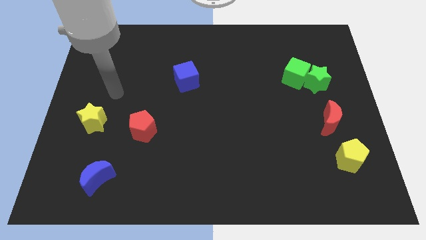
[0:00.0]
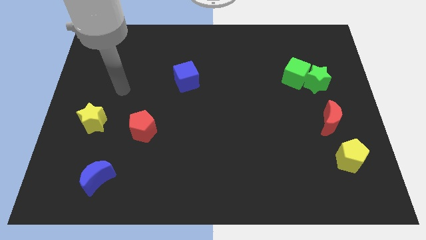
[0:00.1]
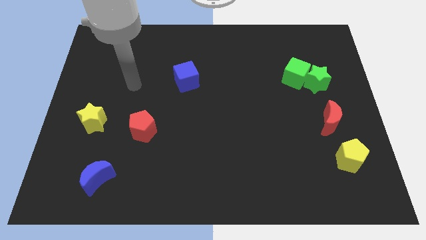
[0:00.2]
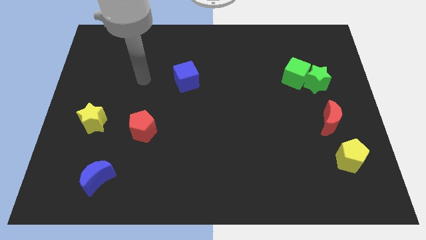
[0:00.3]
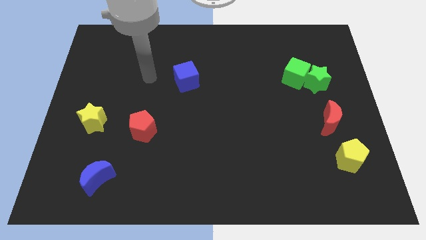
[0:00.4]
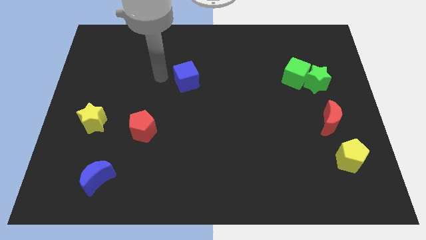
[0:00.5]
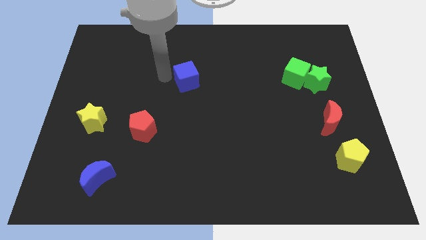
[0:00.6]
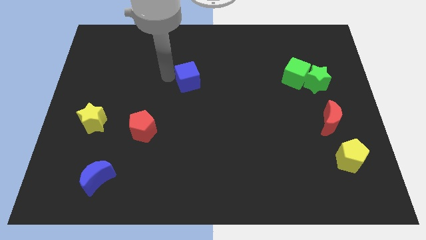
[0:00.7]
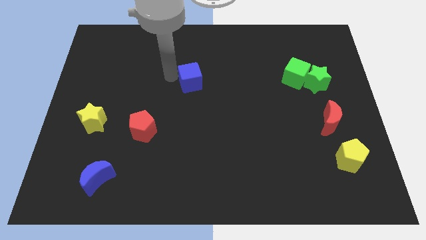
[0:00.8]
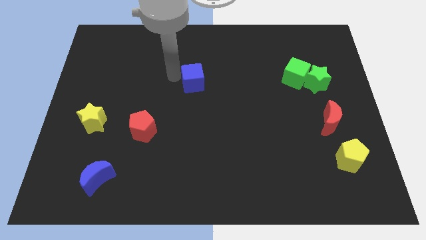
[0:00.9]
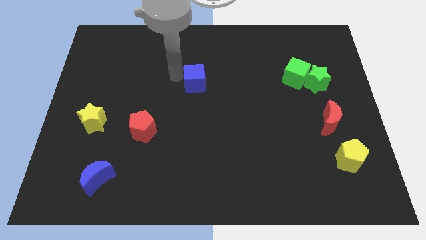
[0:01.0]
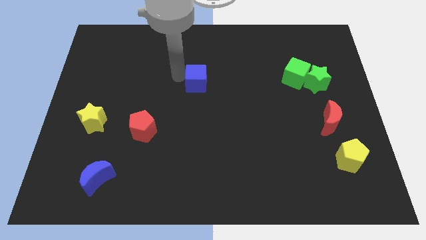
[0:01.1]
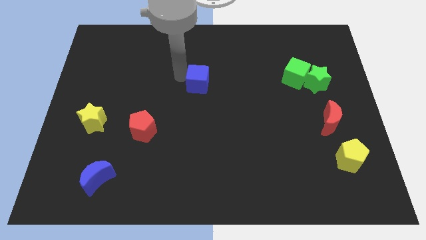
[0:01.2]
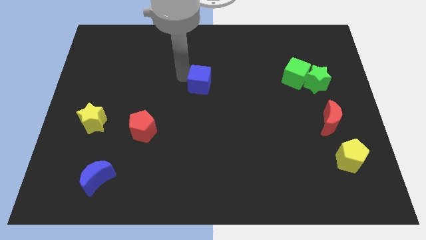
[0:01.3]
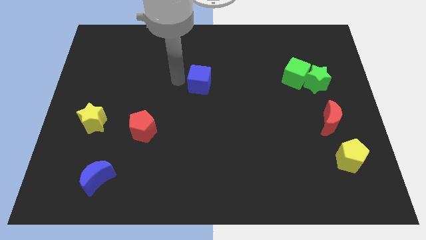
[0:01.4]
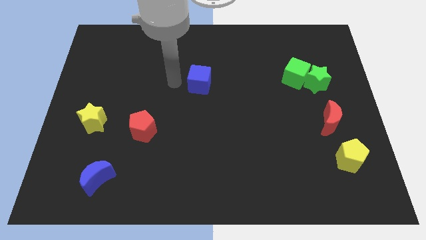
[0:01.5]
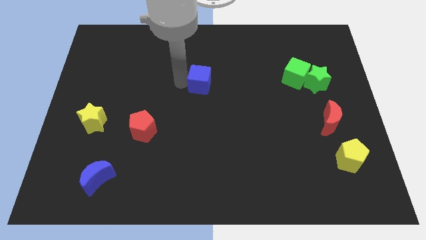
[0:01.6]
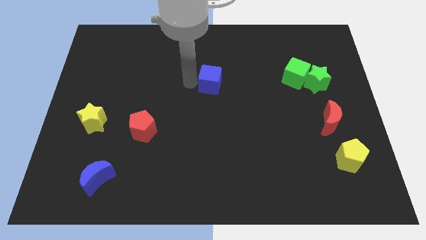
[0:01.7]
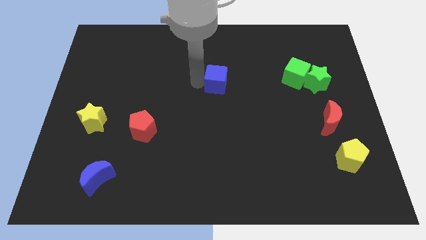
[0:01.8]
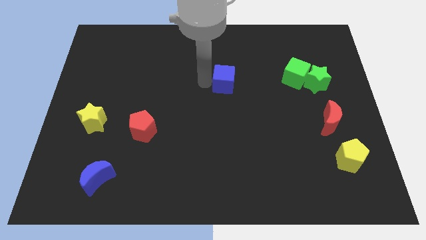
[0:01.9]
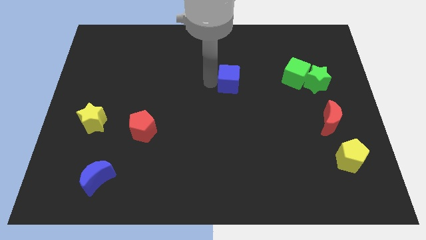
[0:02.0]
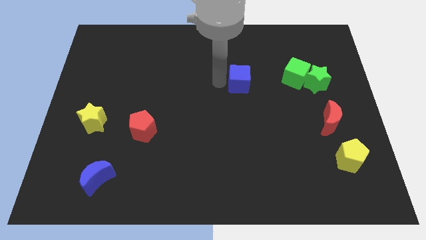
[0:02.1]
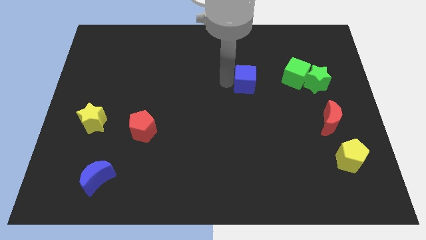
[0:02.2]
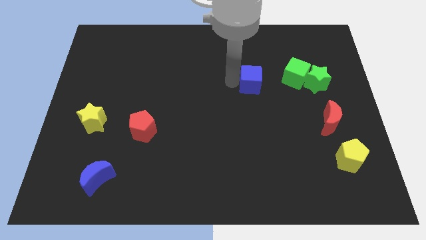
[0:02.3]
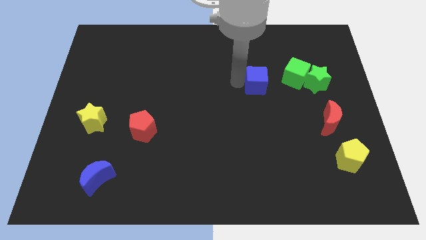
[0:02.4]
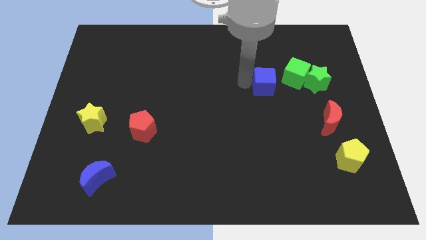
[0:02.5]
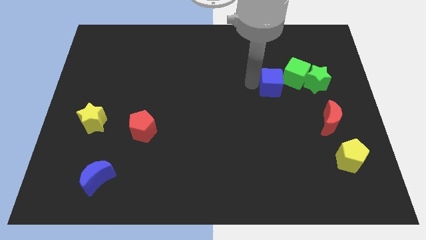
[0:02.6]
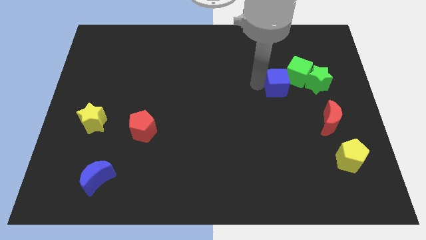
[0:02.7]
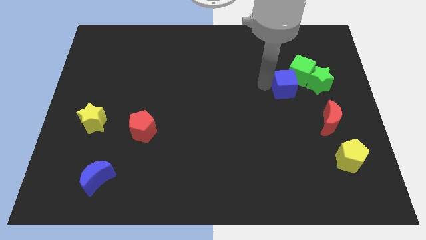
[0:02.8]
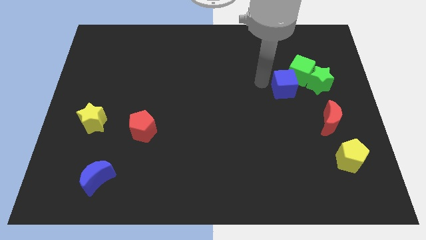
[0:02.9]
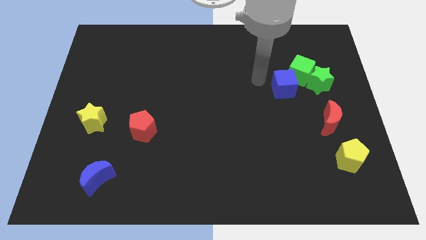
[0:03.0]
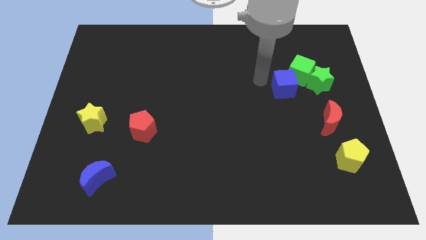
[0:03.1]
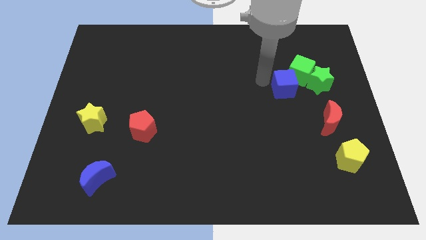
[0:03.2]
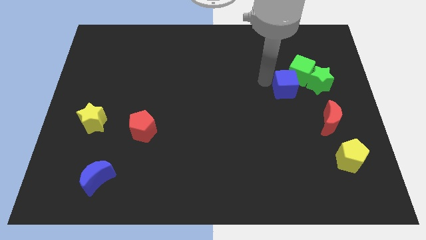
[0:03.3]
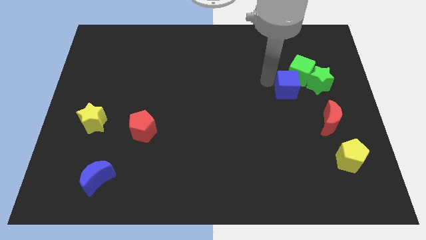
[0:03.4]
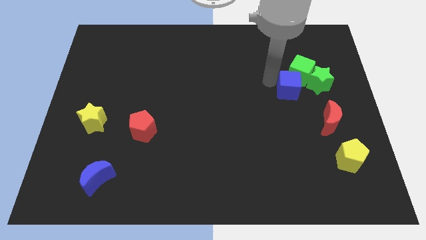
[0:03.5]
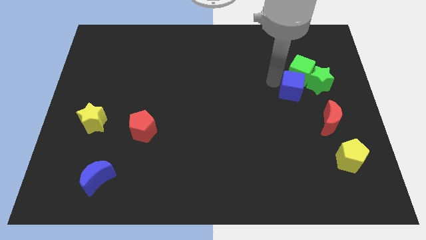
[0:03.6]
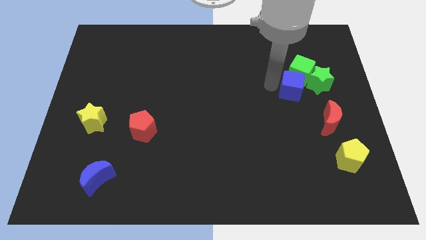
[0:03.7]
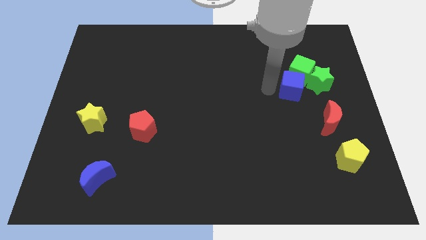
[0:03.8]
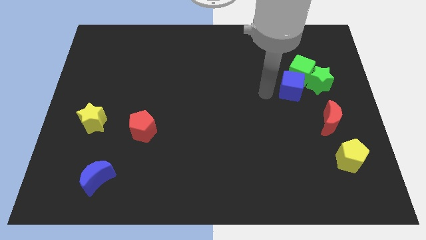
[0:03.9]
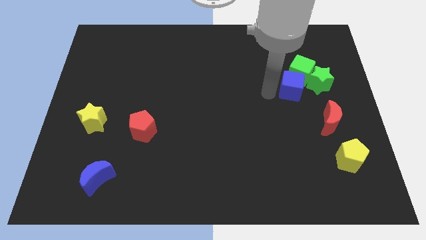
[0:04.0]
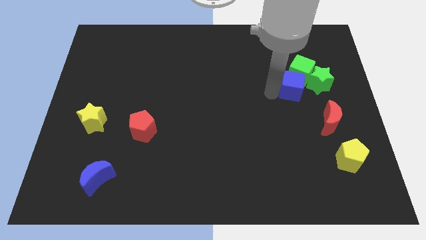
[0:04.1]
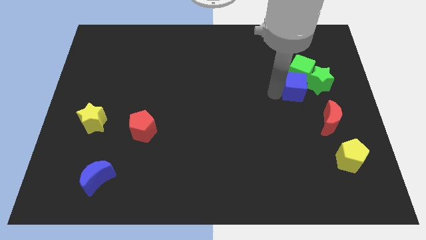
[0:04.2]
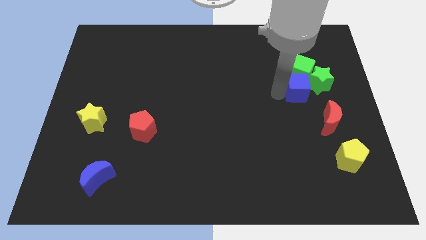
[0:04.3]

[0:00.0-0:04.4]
push the blue cube towards the green star

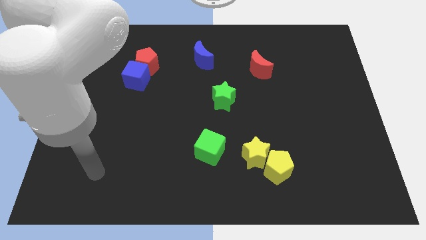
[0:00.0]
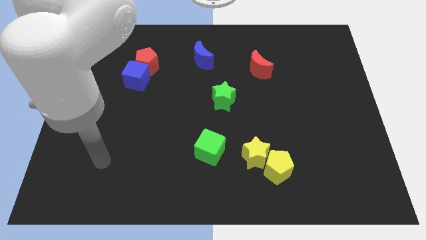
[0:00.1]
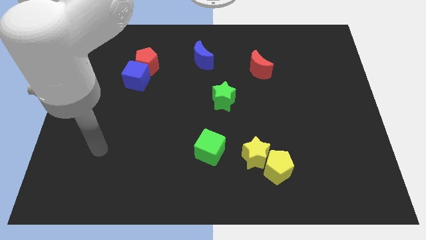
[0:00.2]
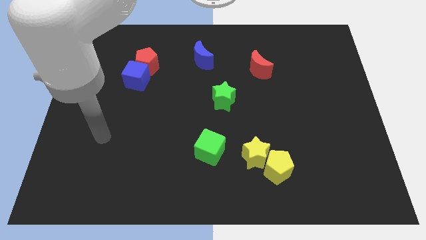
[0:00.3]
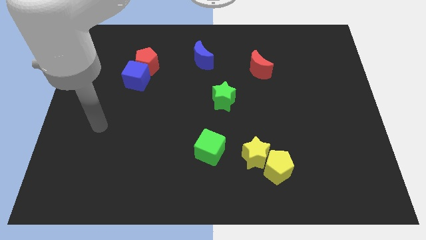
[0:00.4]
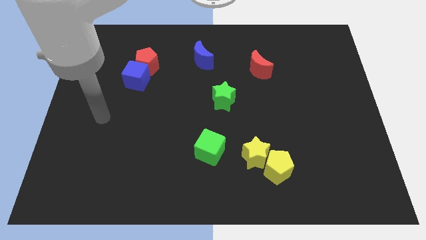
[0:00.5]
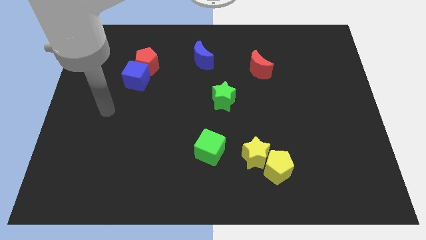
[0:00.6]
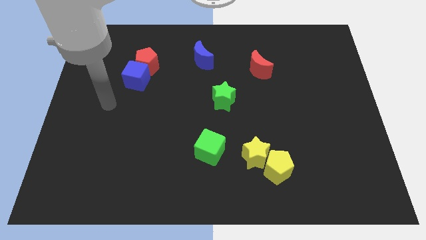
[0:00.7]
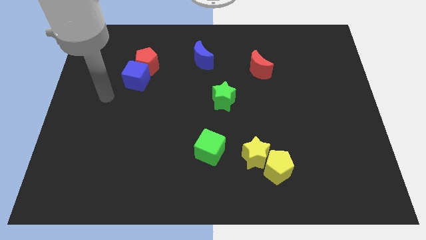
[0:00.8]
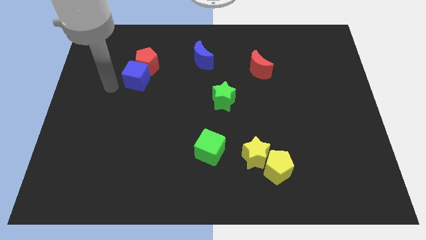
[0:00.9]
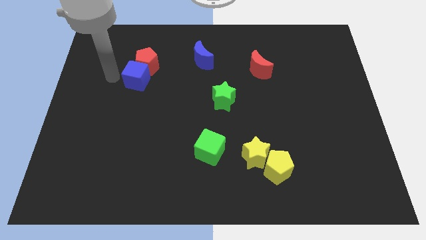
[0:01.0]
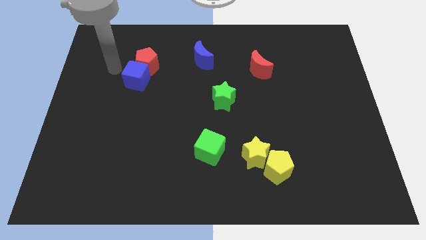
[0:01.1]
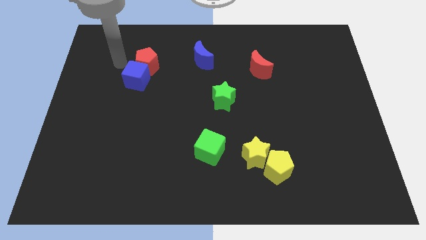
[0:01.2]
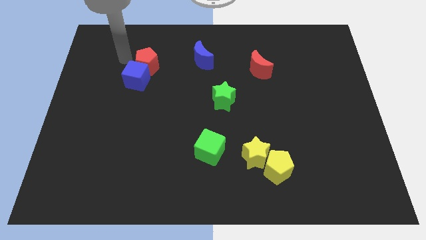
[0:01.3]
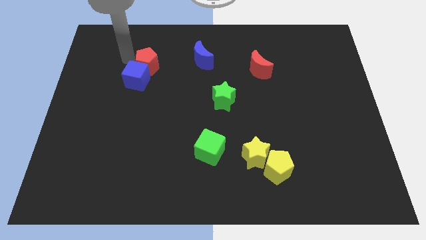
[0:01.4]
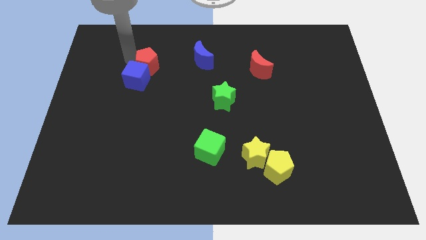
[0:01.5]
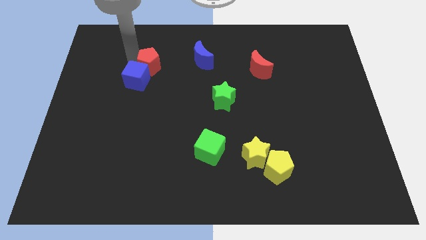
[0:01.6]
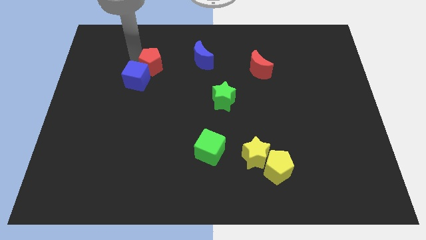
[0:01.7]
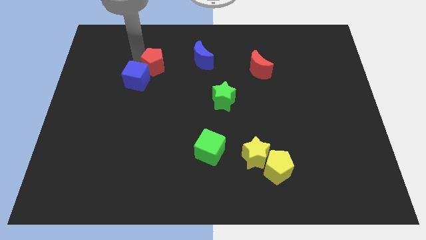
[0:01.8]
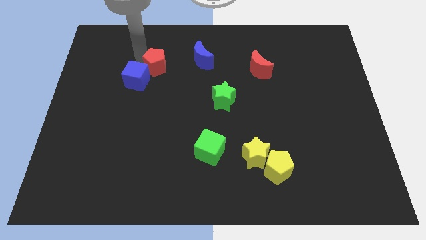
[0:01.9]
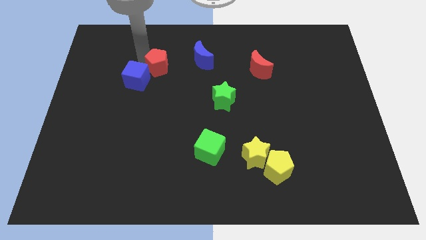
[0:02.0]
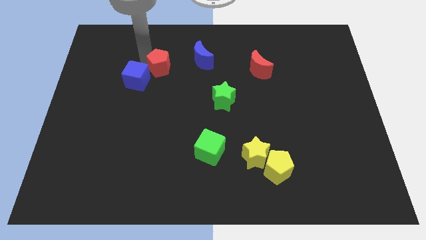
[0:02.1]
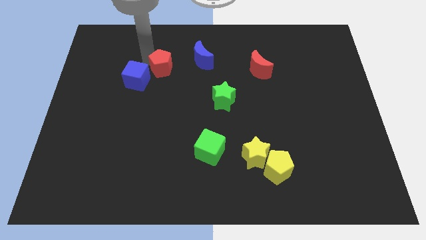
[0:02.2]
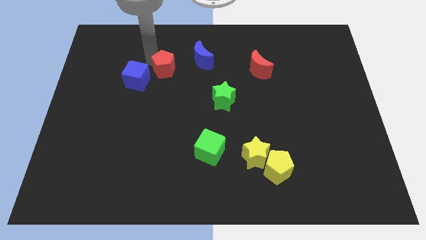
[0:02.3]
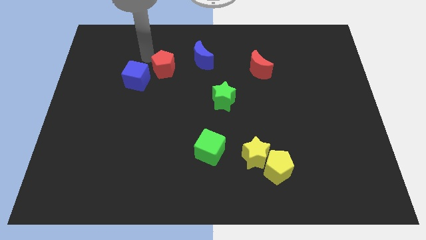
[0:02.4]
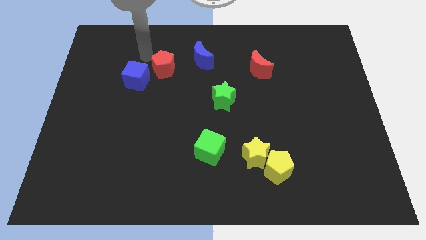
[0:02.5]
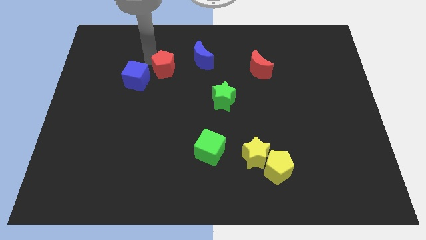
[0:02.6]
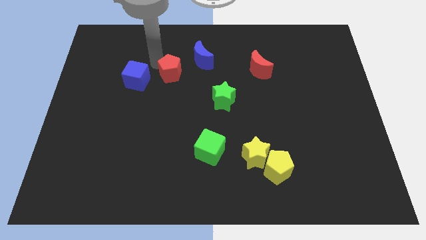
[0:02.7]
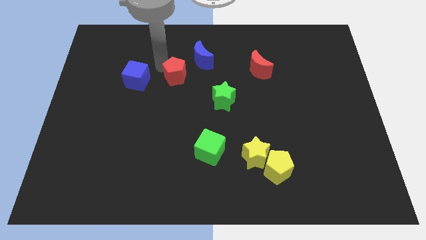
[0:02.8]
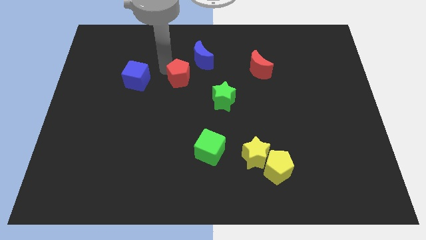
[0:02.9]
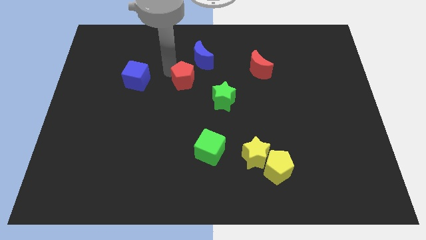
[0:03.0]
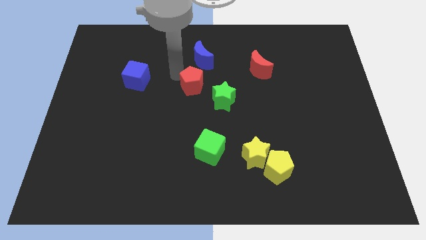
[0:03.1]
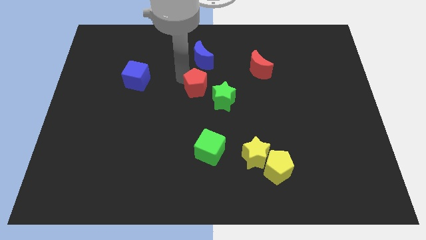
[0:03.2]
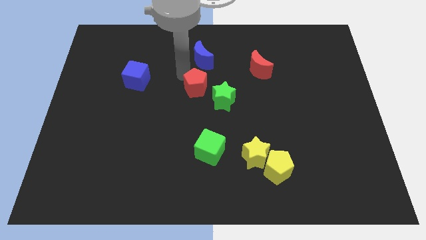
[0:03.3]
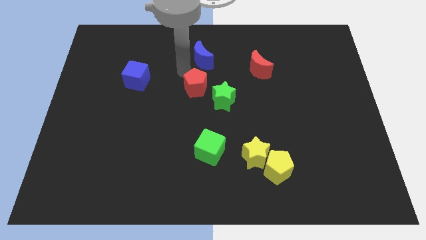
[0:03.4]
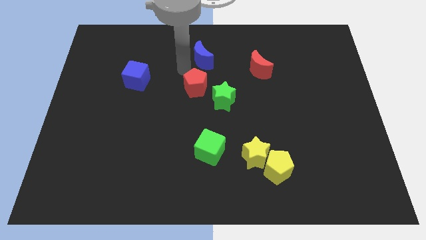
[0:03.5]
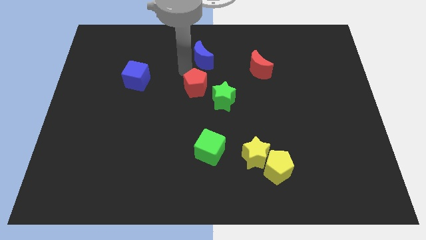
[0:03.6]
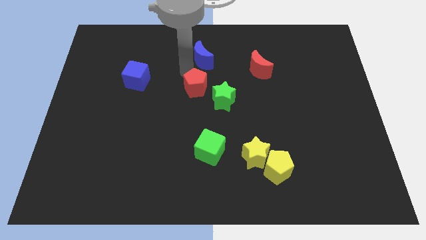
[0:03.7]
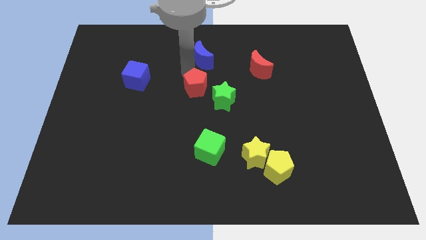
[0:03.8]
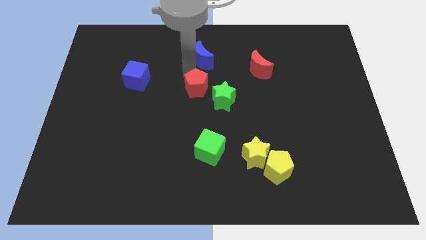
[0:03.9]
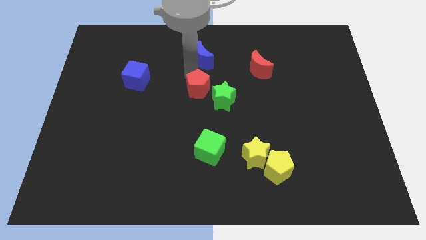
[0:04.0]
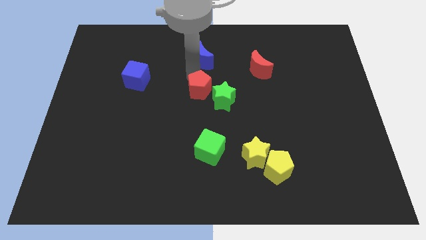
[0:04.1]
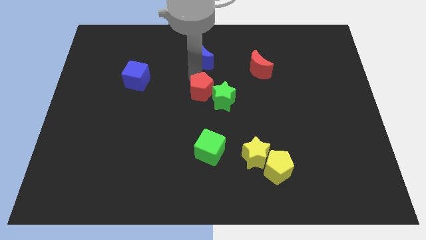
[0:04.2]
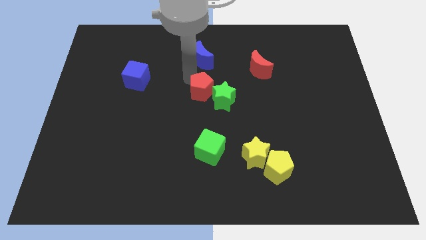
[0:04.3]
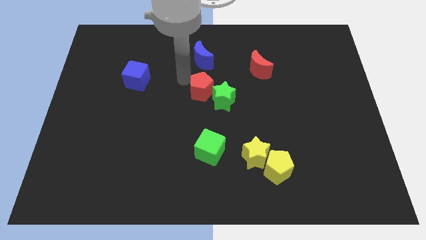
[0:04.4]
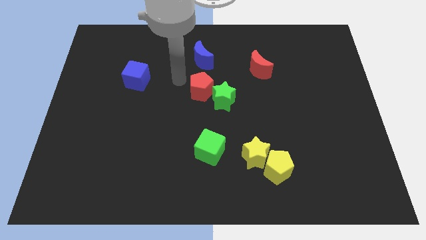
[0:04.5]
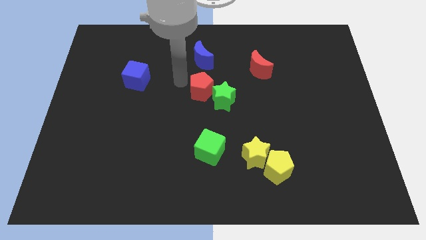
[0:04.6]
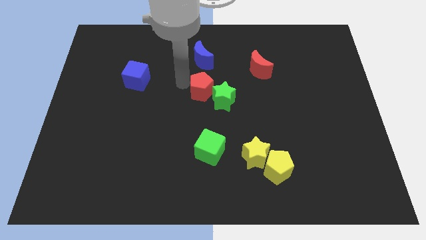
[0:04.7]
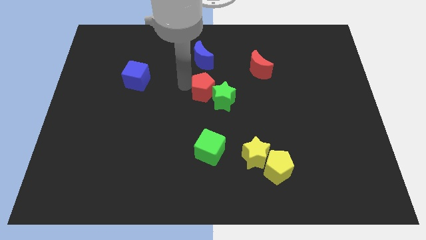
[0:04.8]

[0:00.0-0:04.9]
push the red pentagon next to the green star
